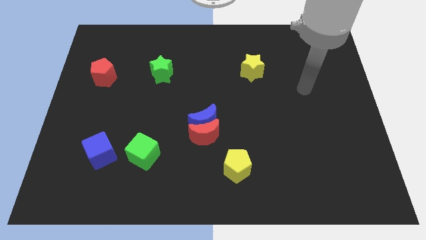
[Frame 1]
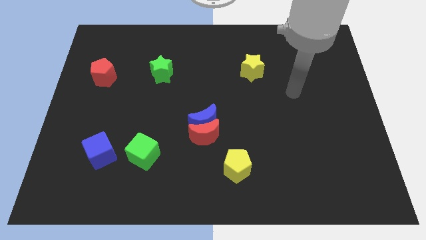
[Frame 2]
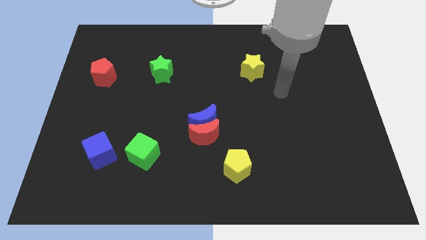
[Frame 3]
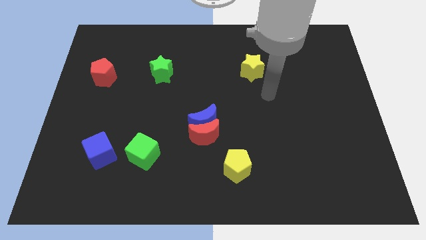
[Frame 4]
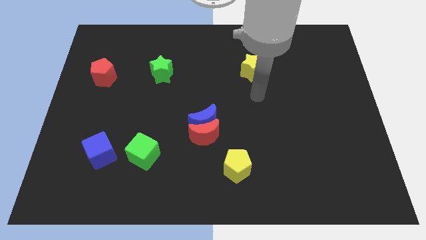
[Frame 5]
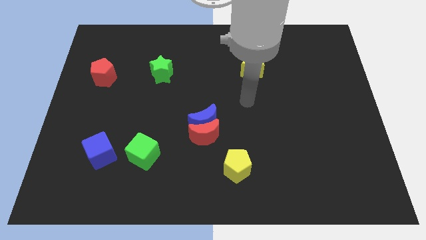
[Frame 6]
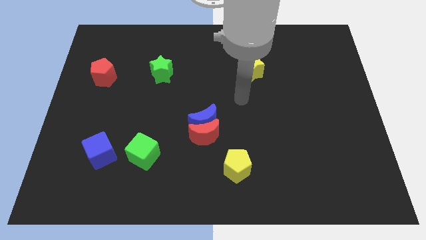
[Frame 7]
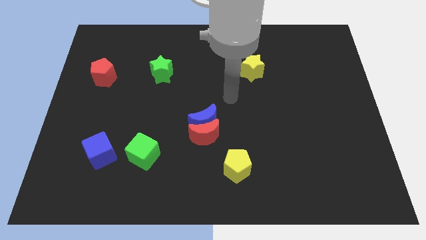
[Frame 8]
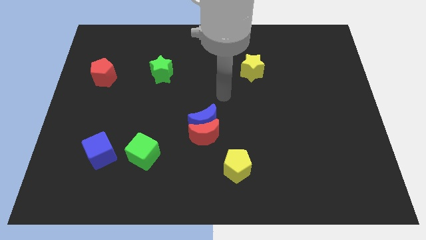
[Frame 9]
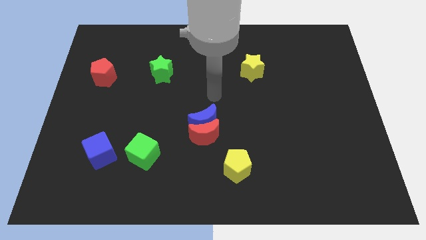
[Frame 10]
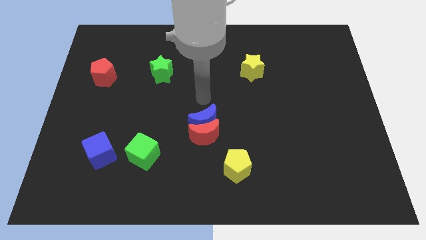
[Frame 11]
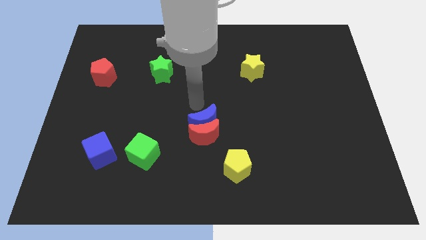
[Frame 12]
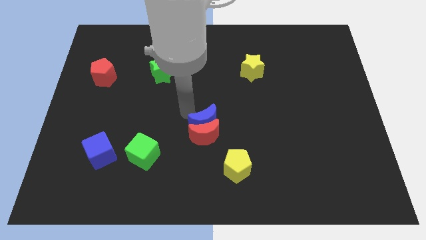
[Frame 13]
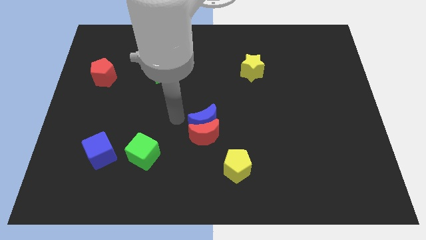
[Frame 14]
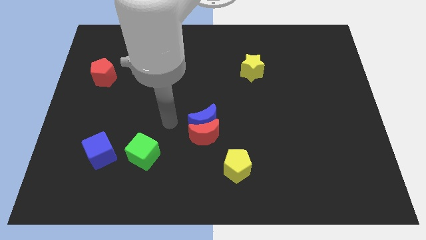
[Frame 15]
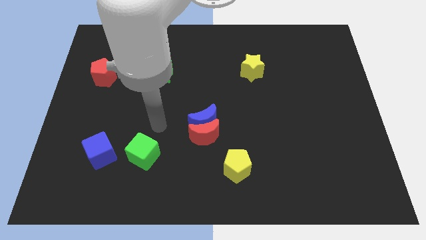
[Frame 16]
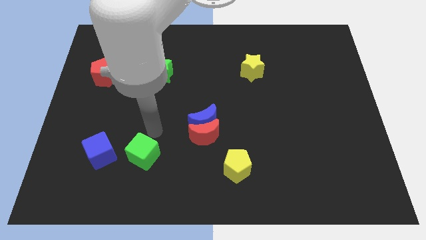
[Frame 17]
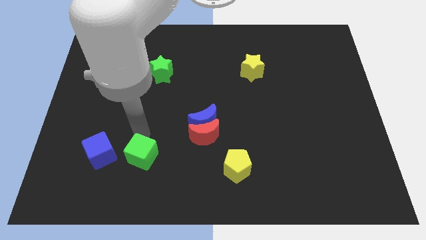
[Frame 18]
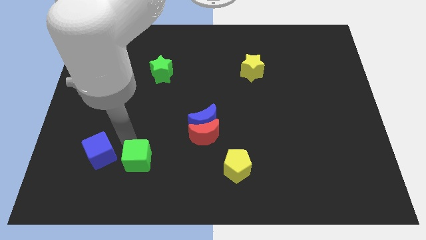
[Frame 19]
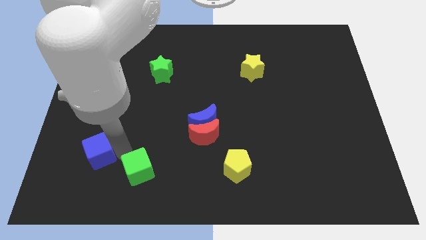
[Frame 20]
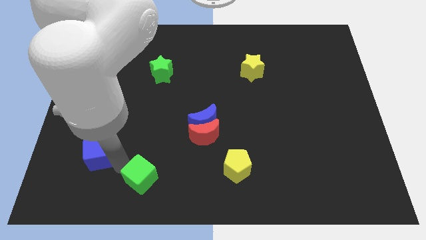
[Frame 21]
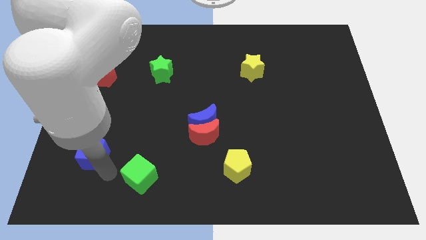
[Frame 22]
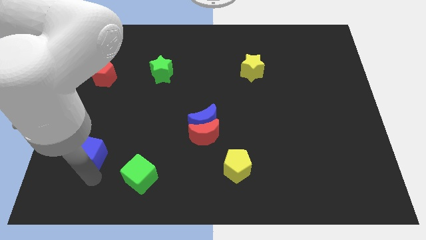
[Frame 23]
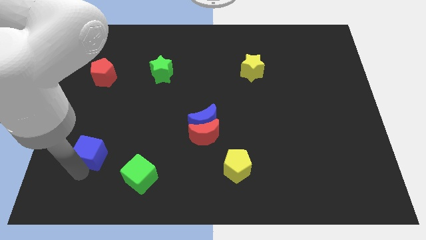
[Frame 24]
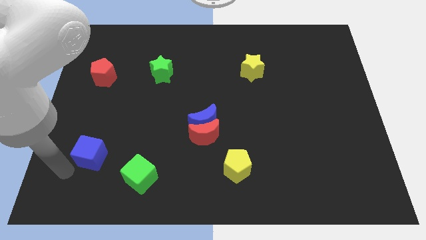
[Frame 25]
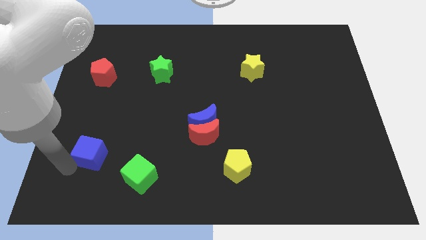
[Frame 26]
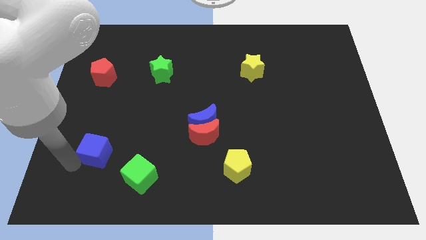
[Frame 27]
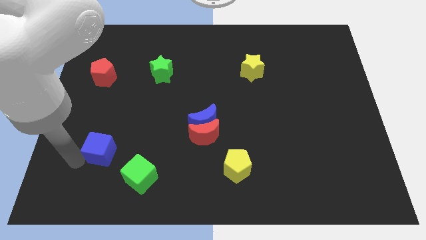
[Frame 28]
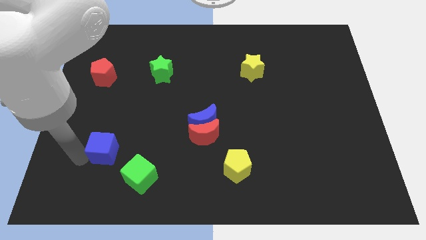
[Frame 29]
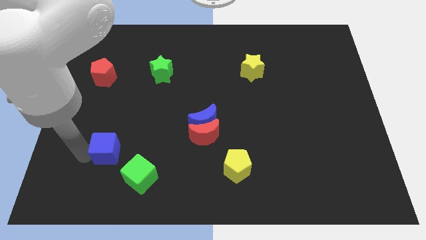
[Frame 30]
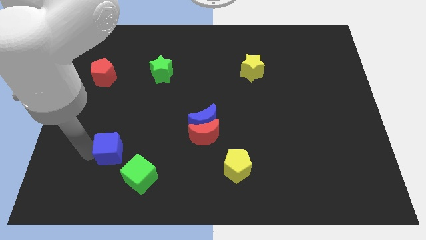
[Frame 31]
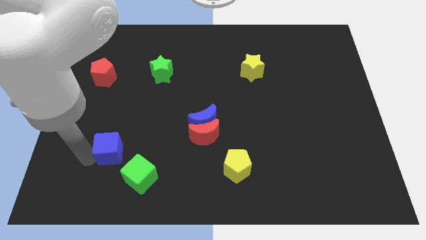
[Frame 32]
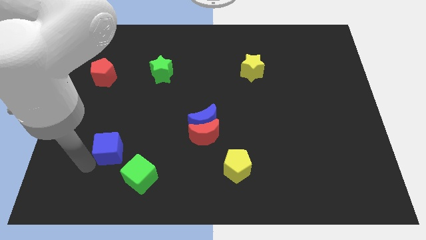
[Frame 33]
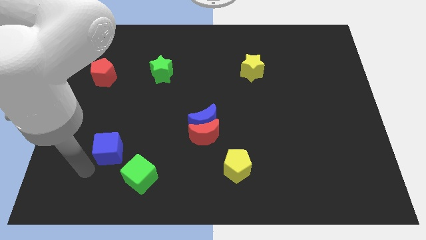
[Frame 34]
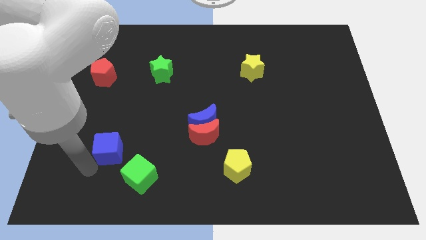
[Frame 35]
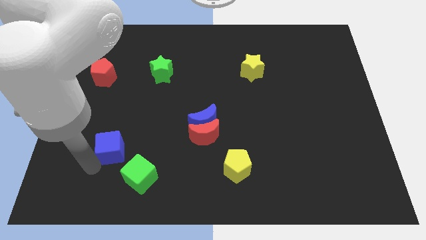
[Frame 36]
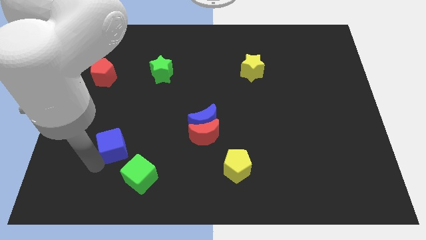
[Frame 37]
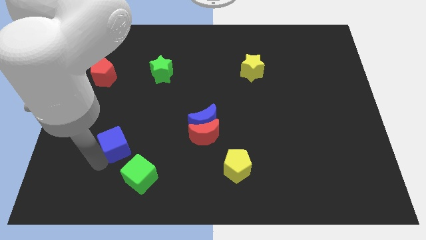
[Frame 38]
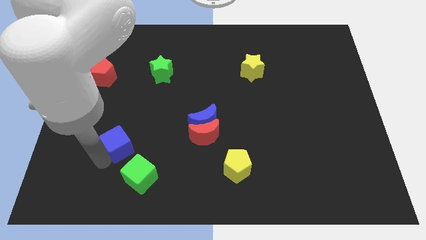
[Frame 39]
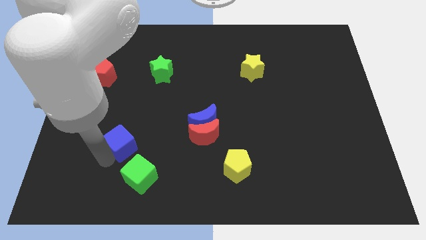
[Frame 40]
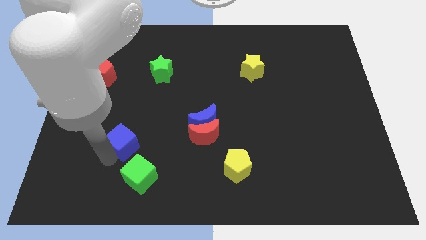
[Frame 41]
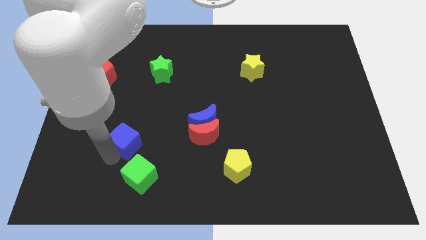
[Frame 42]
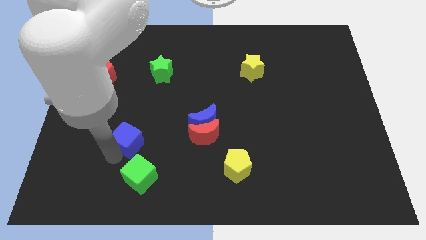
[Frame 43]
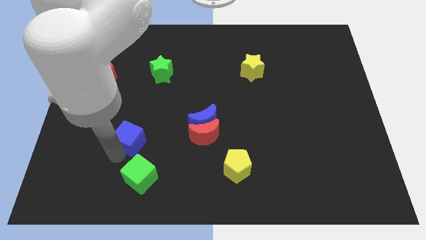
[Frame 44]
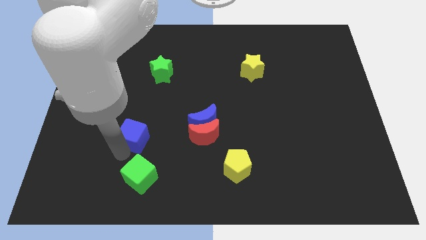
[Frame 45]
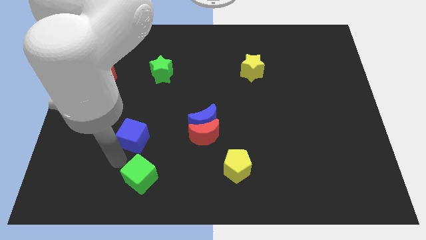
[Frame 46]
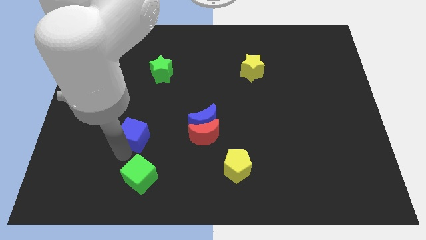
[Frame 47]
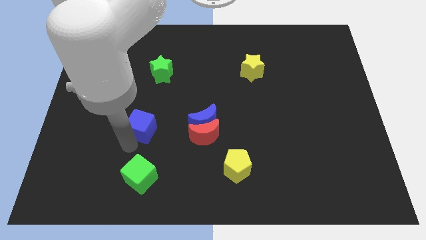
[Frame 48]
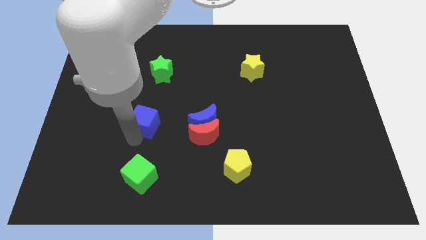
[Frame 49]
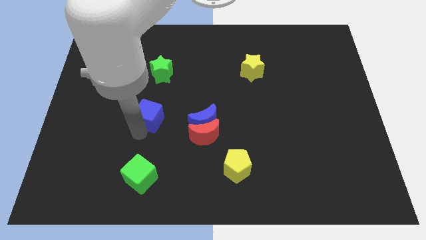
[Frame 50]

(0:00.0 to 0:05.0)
move the blue cube to the bottom side of the green star

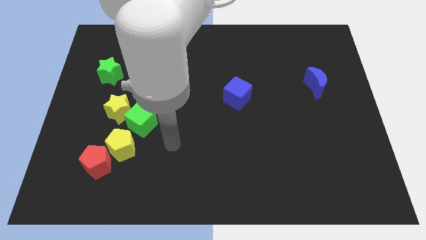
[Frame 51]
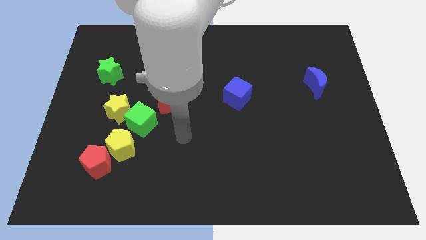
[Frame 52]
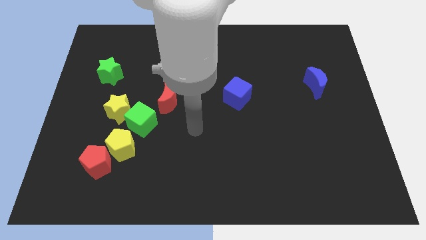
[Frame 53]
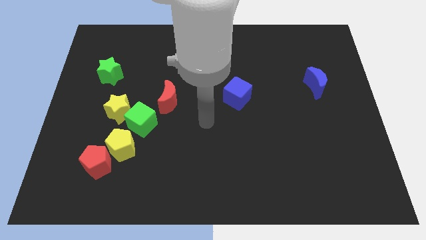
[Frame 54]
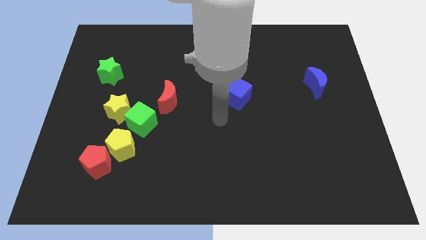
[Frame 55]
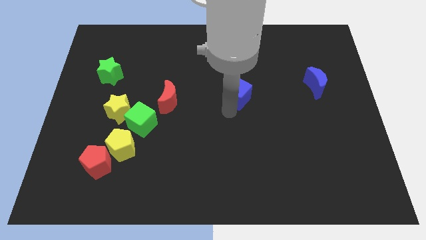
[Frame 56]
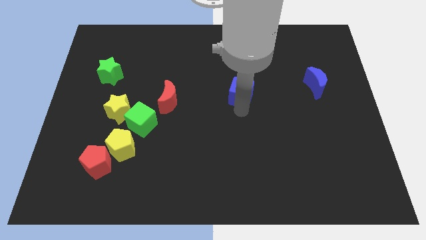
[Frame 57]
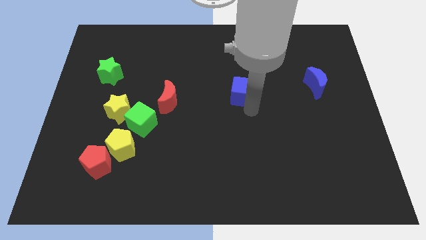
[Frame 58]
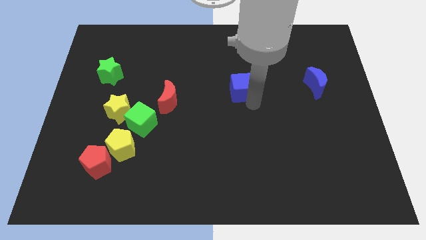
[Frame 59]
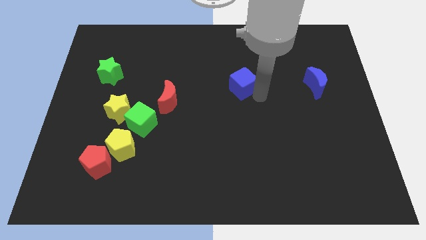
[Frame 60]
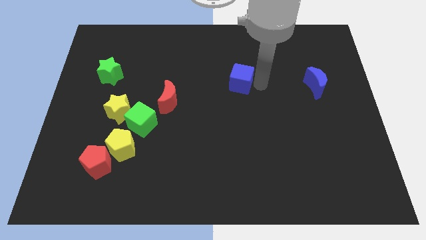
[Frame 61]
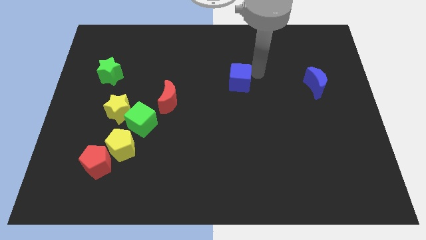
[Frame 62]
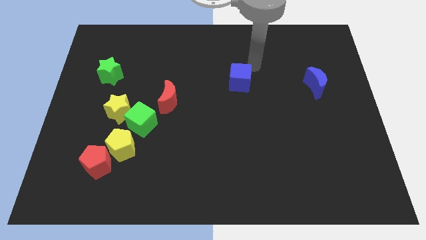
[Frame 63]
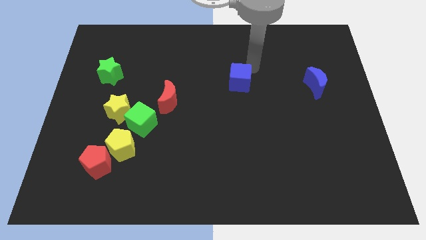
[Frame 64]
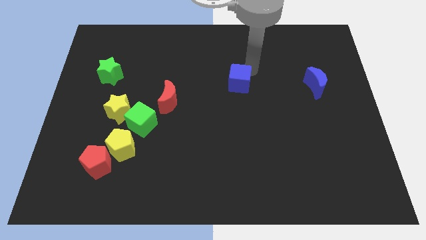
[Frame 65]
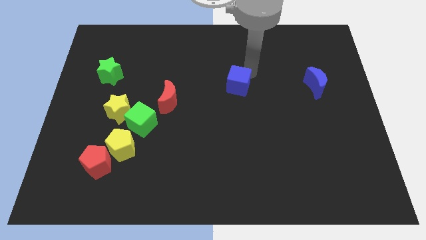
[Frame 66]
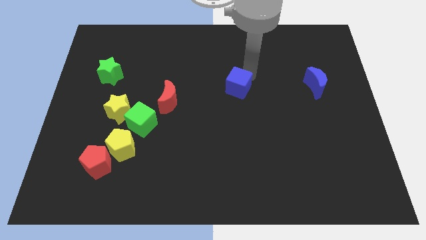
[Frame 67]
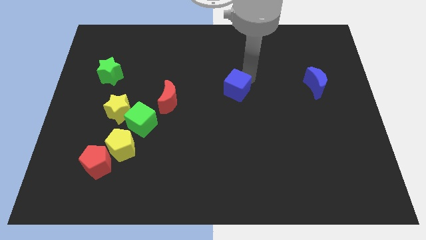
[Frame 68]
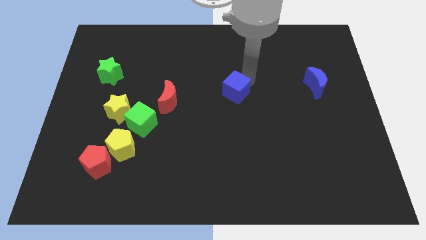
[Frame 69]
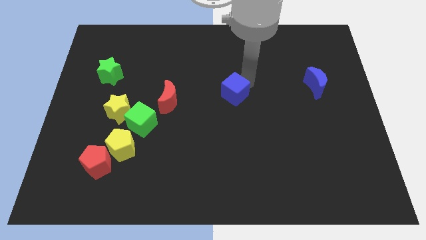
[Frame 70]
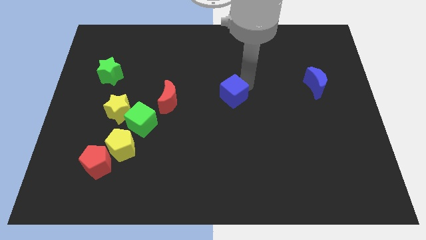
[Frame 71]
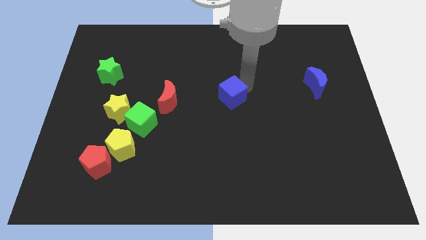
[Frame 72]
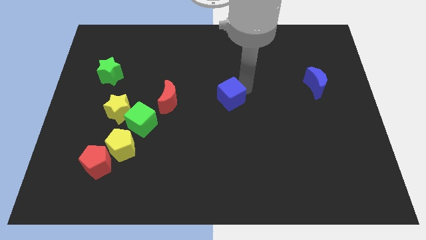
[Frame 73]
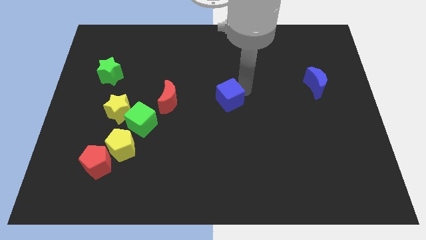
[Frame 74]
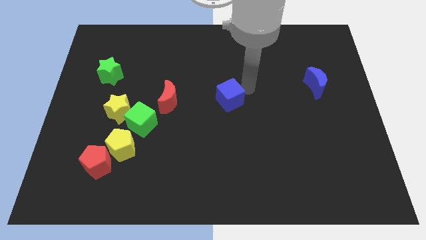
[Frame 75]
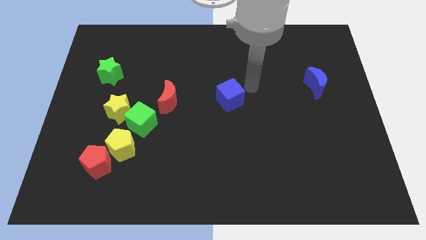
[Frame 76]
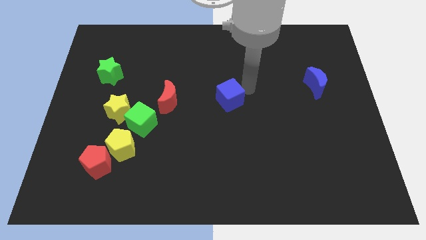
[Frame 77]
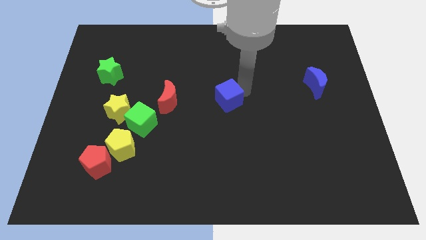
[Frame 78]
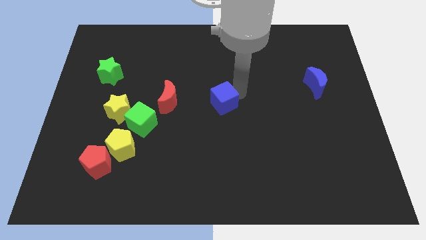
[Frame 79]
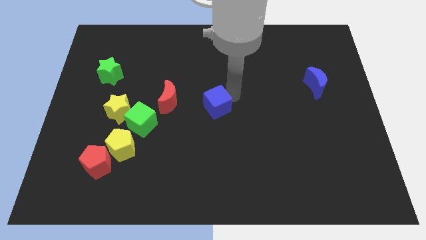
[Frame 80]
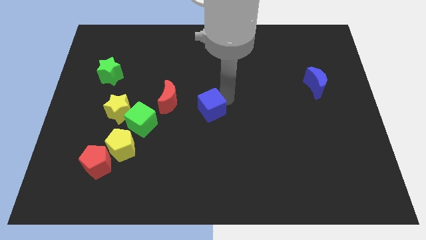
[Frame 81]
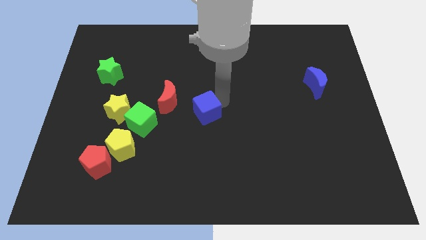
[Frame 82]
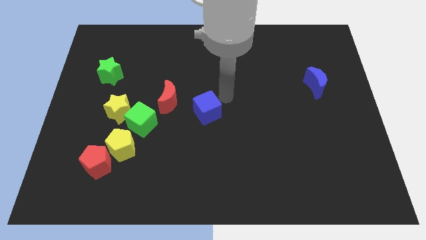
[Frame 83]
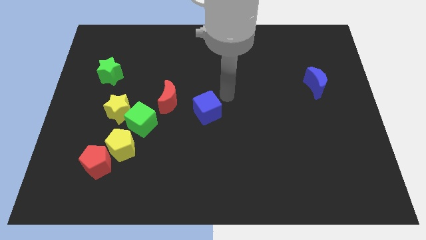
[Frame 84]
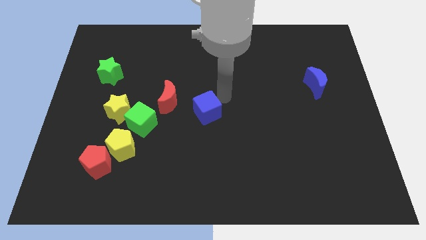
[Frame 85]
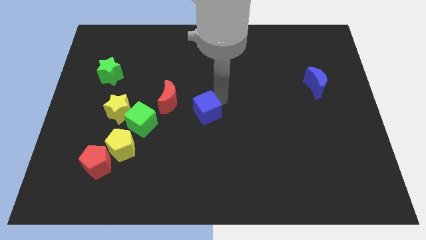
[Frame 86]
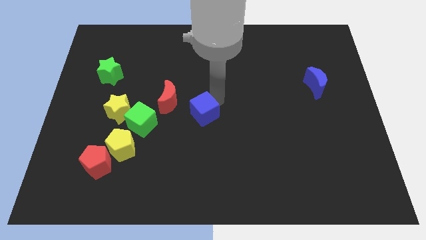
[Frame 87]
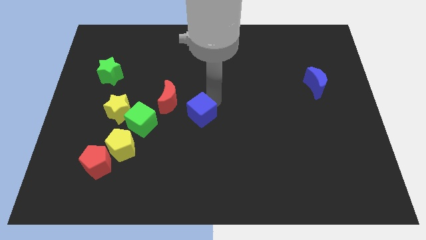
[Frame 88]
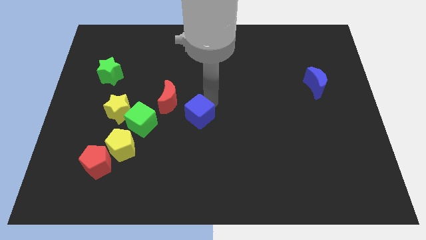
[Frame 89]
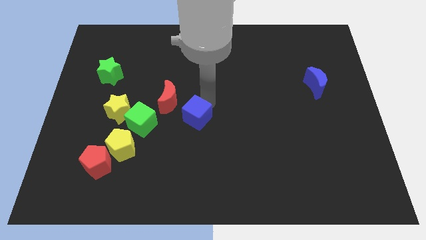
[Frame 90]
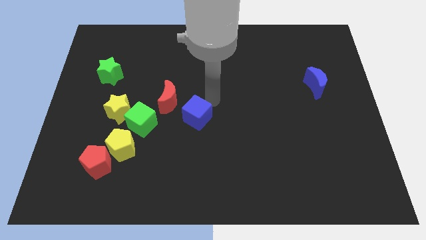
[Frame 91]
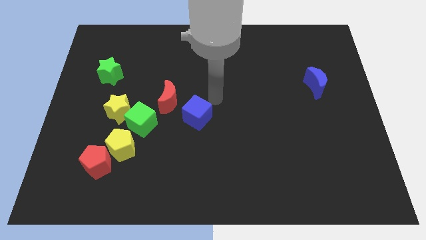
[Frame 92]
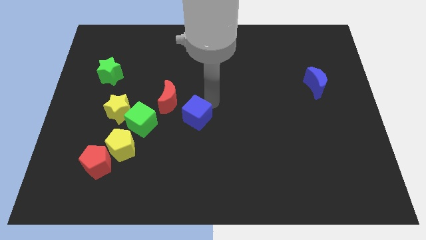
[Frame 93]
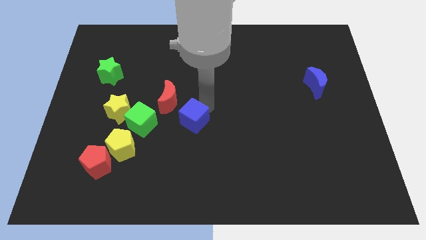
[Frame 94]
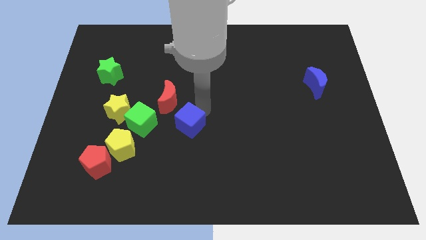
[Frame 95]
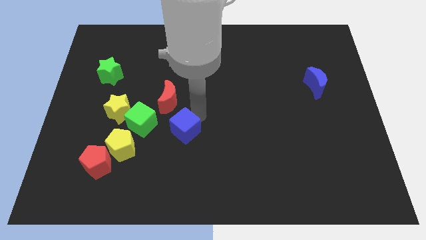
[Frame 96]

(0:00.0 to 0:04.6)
push the blue cube to the bottom of the red moon
